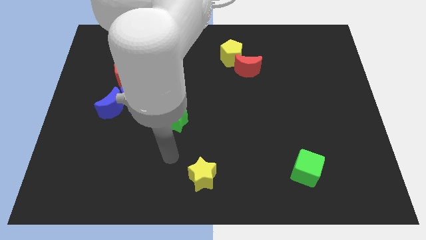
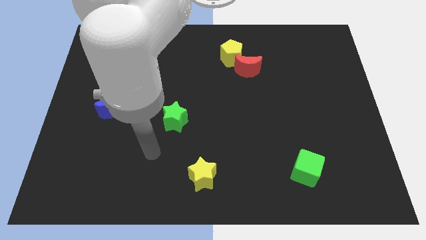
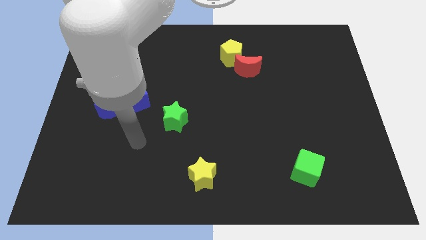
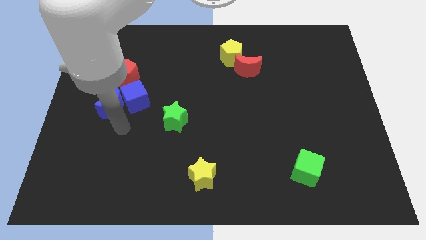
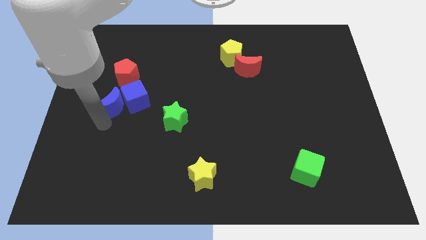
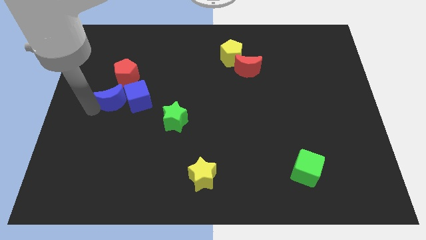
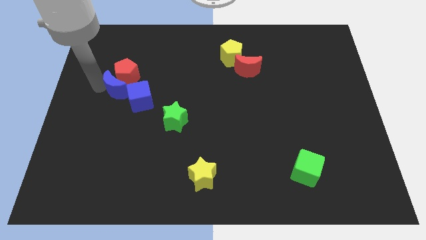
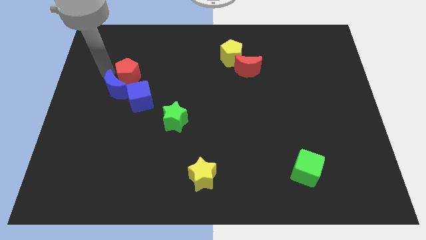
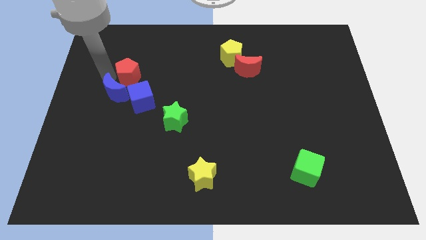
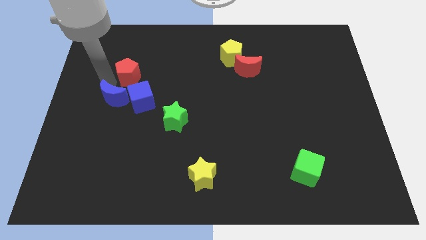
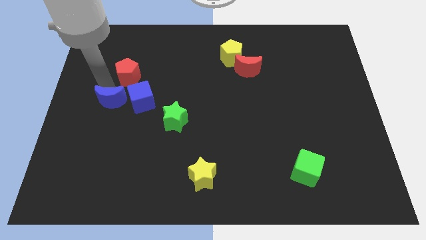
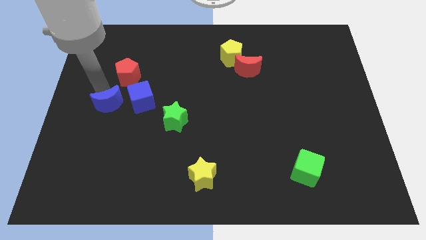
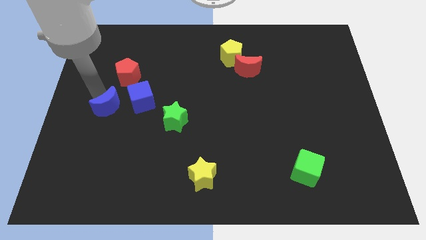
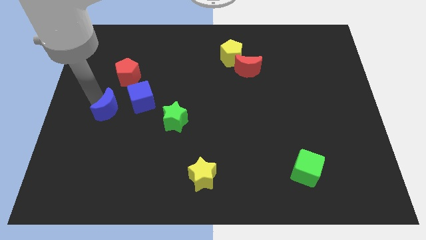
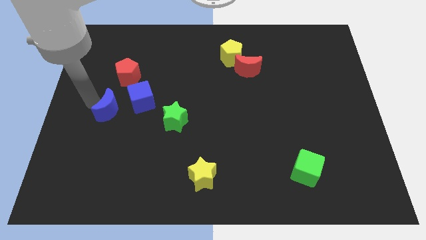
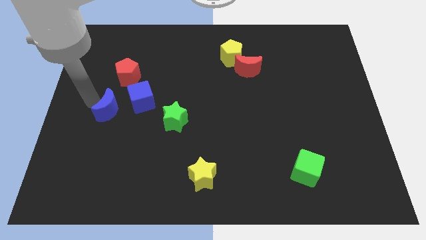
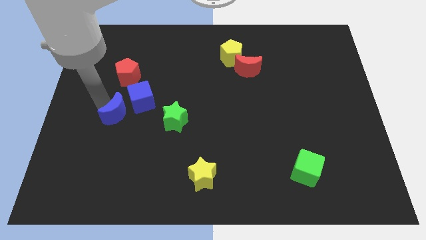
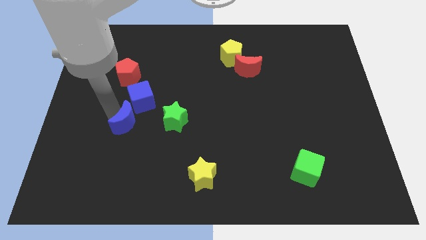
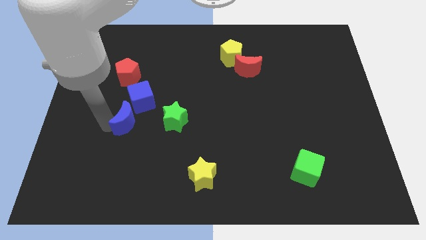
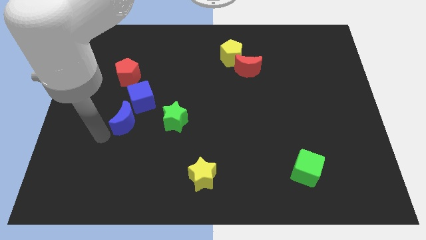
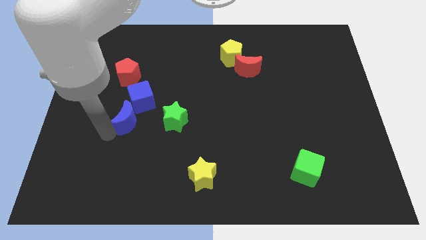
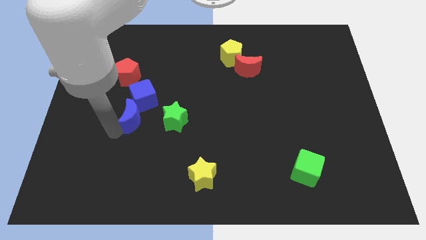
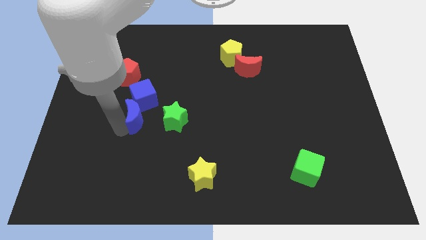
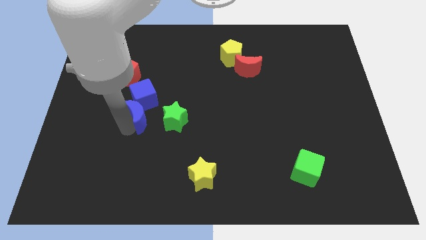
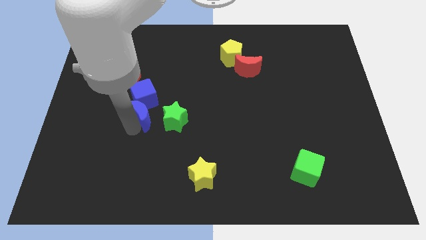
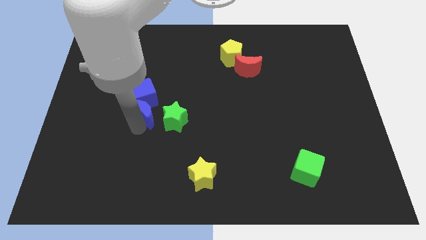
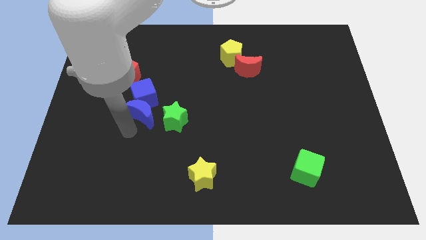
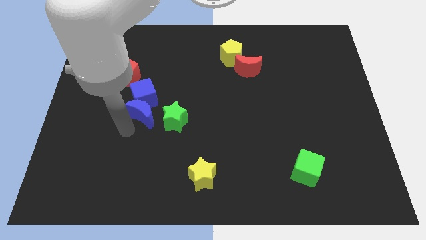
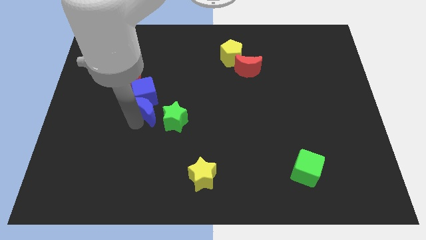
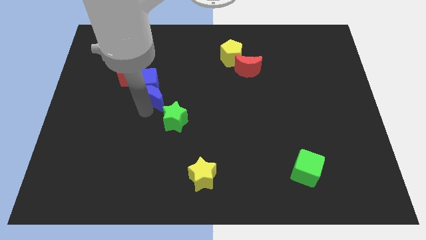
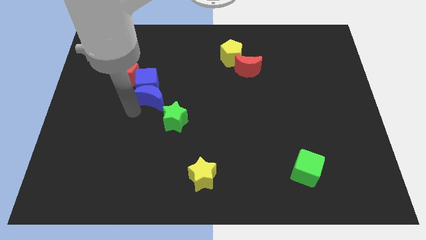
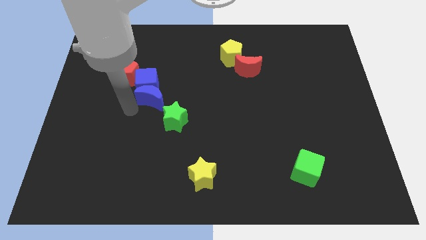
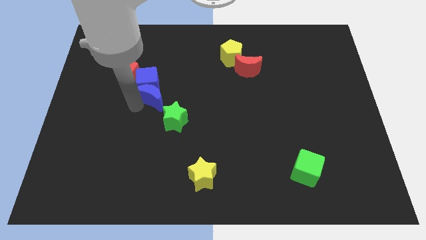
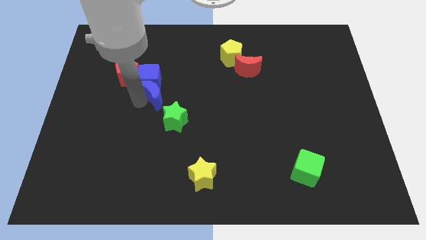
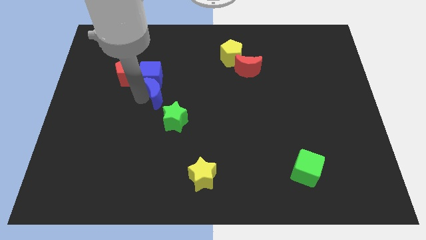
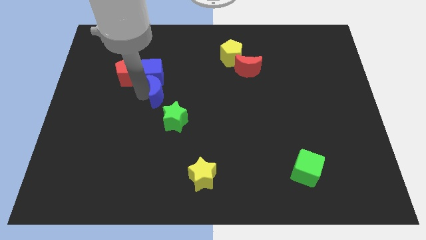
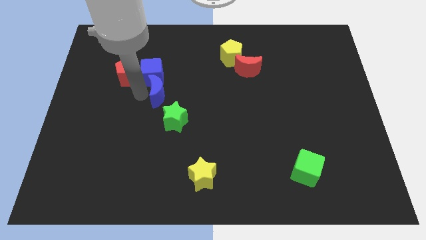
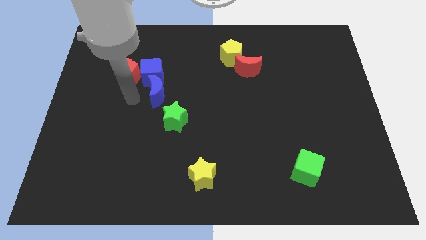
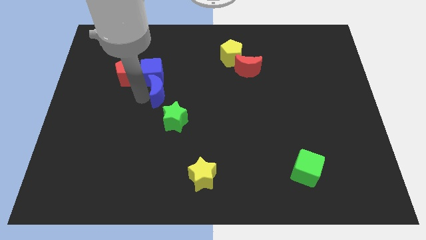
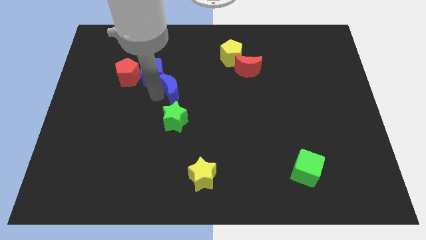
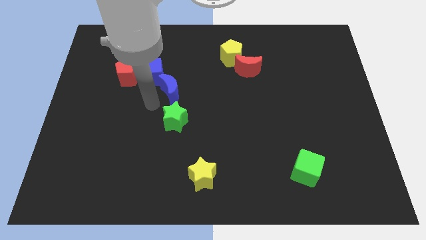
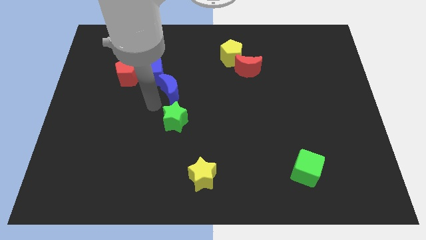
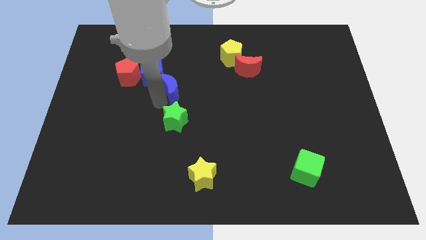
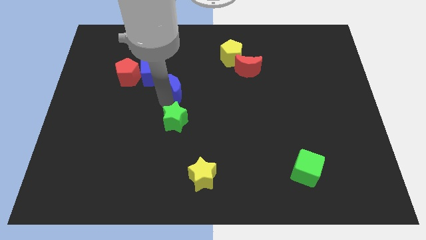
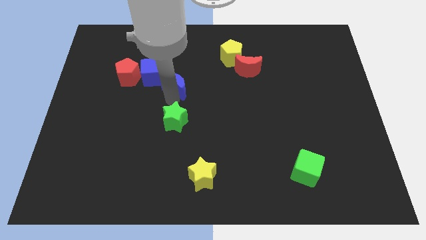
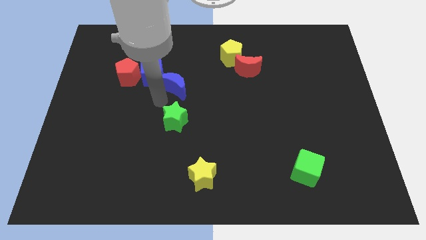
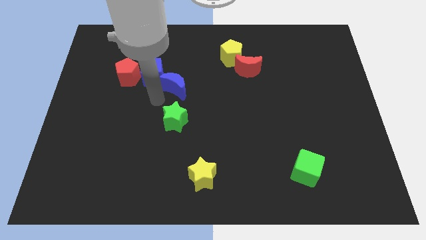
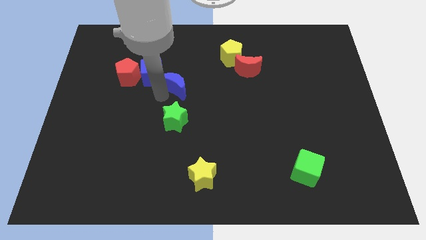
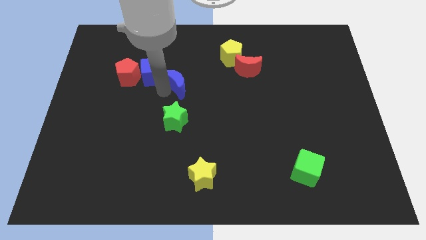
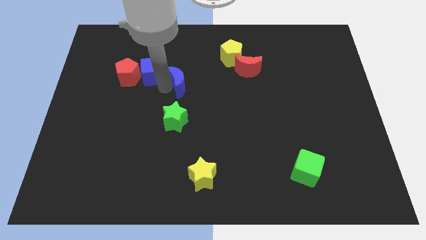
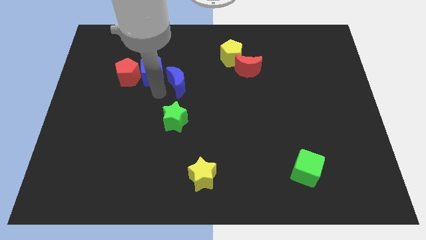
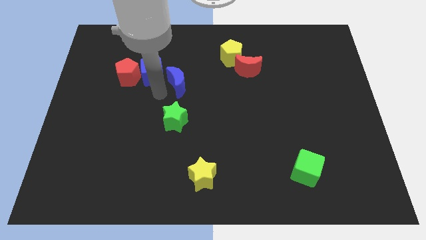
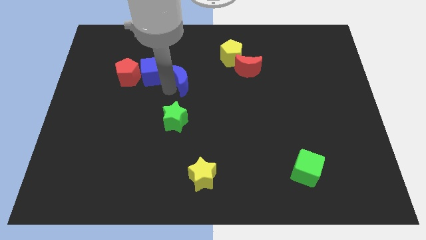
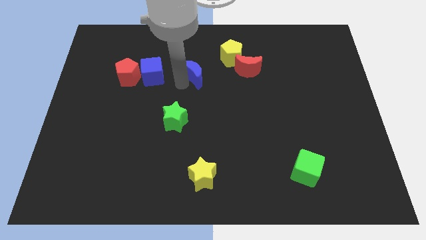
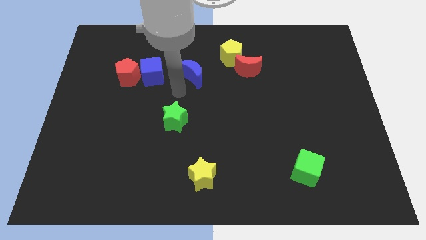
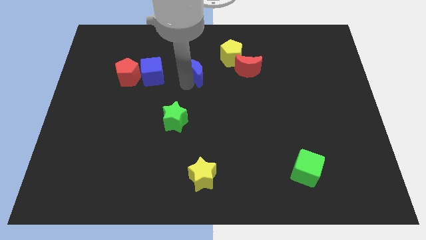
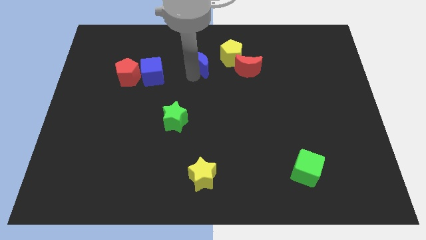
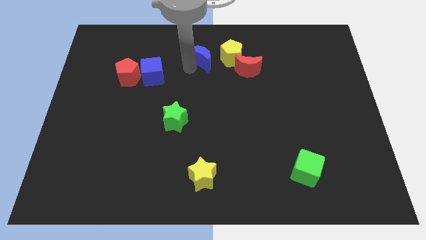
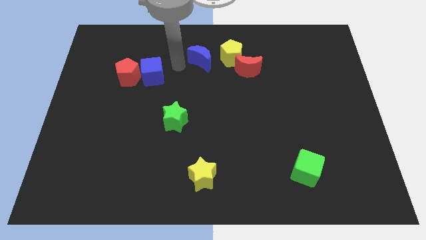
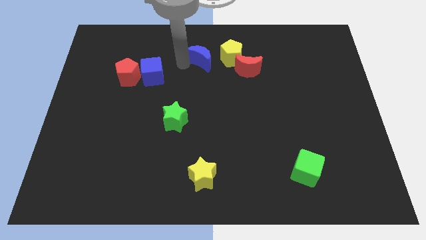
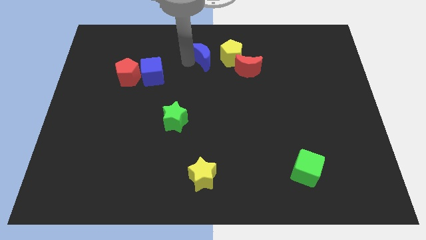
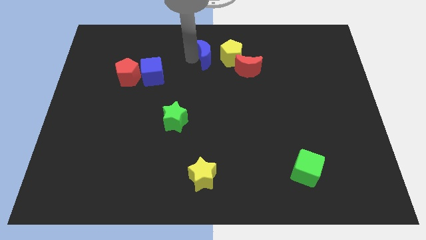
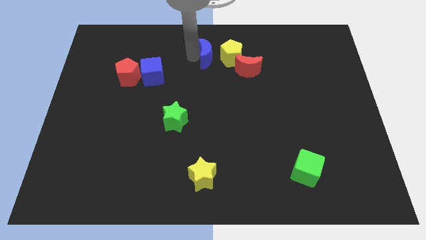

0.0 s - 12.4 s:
push the blue moon diagonally up and to the left of the red moon

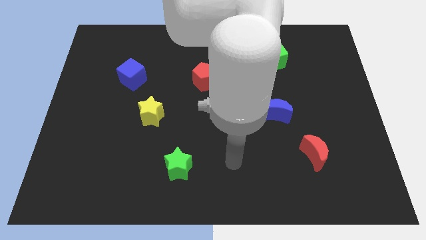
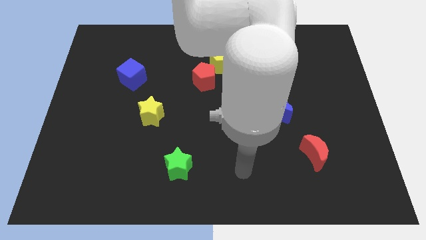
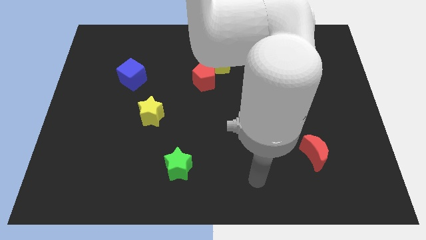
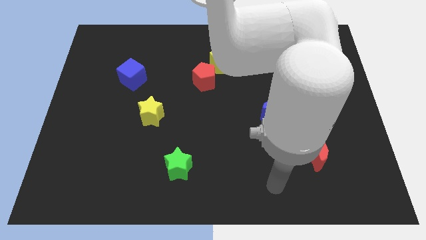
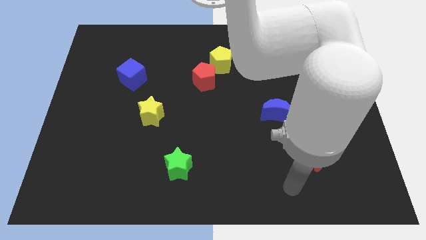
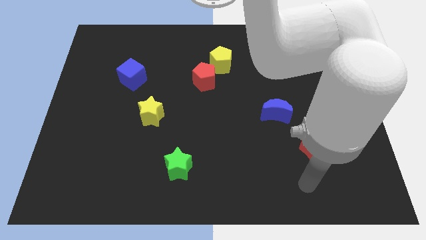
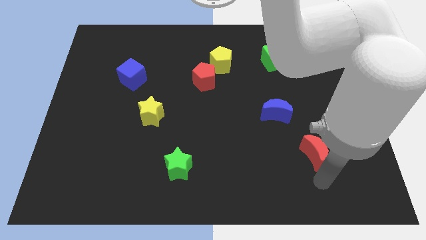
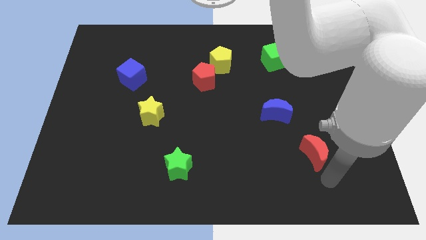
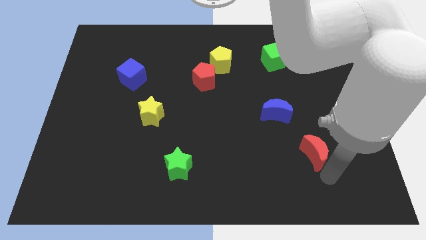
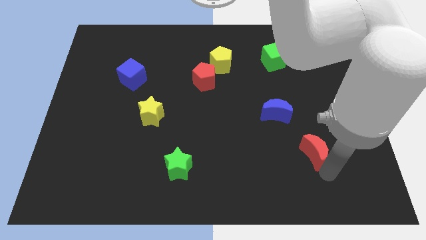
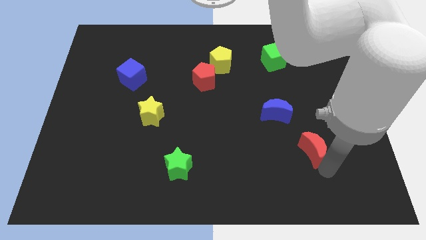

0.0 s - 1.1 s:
slide the red moon to the bottom right side of the blue moon
